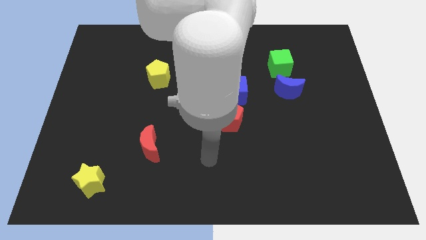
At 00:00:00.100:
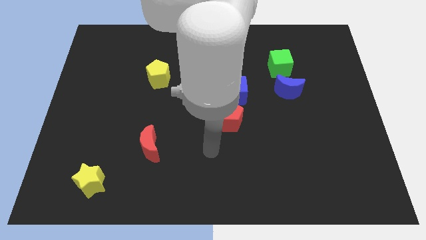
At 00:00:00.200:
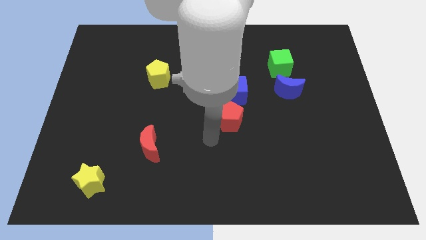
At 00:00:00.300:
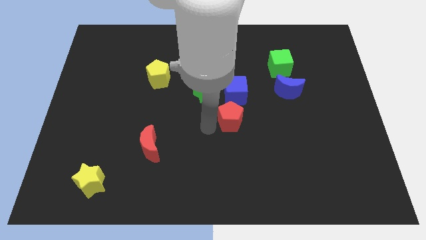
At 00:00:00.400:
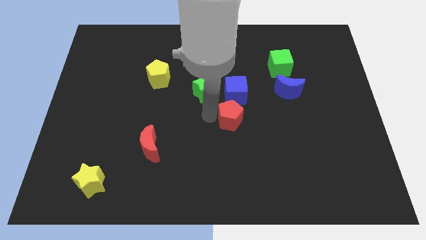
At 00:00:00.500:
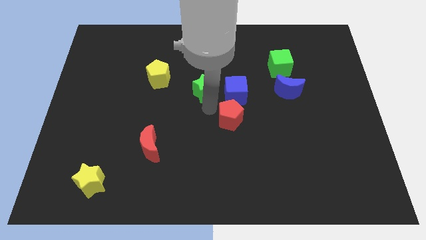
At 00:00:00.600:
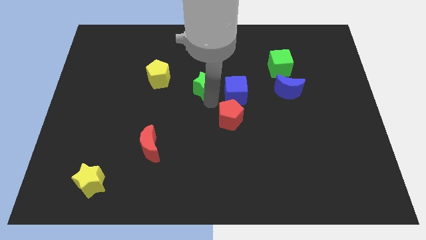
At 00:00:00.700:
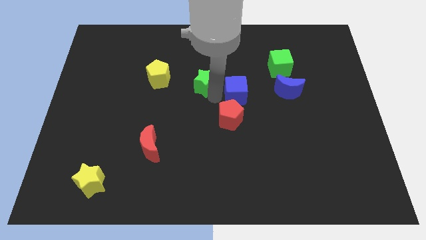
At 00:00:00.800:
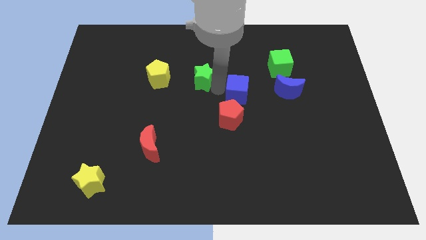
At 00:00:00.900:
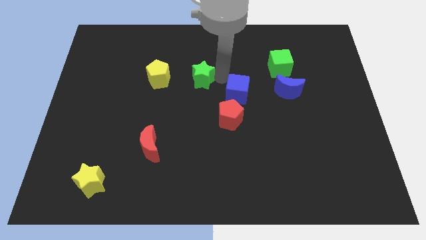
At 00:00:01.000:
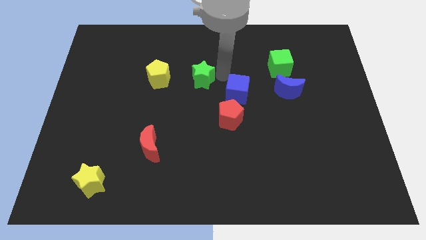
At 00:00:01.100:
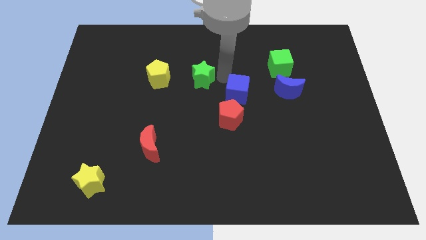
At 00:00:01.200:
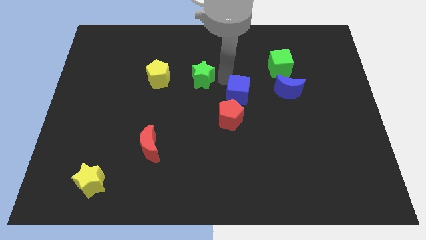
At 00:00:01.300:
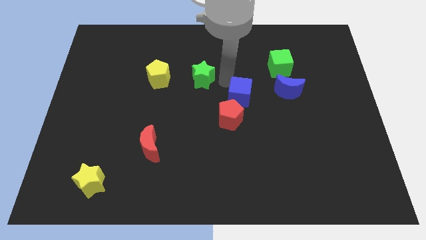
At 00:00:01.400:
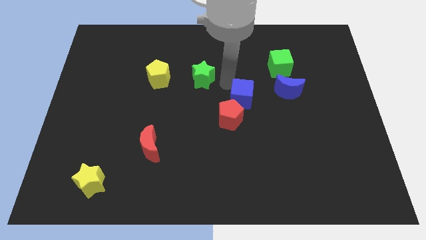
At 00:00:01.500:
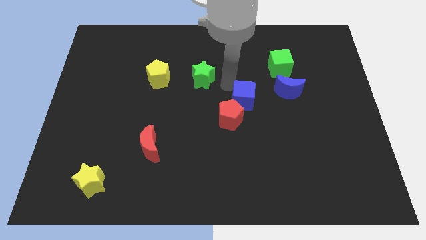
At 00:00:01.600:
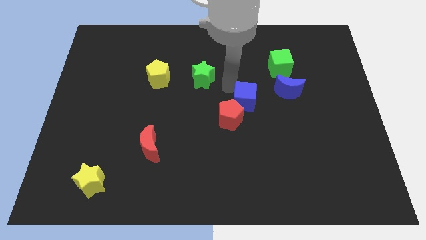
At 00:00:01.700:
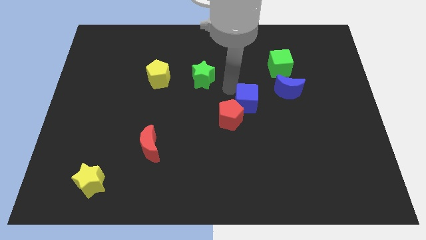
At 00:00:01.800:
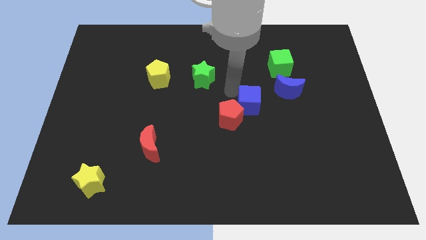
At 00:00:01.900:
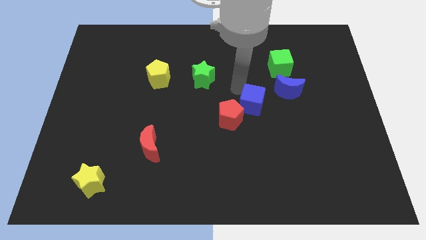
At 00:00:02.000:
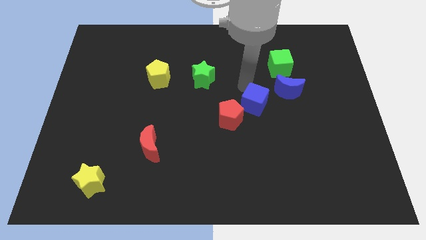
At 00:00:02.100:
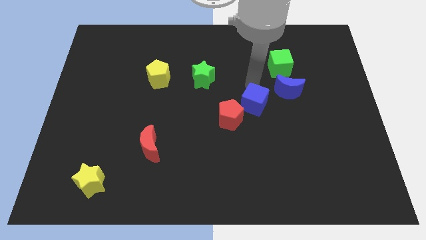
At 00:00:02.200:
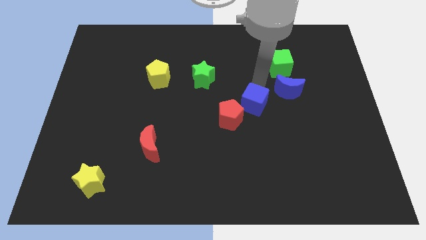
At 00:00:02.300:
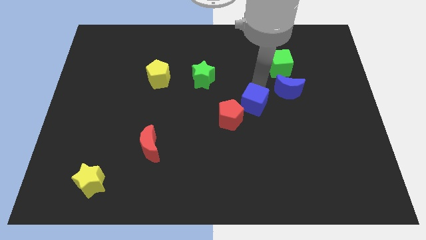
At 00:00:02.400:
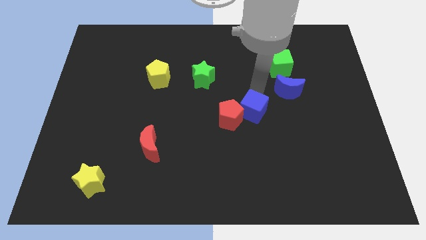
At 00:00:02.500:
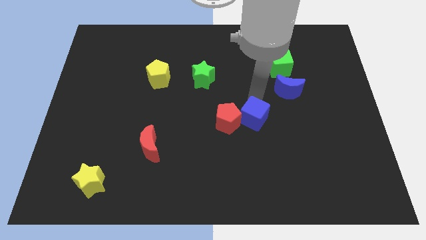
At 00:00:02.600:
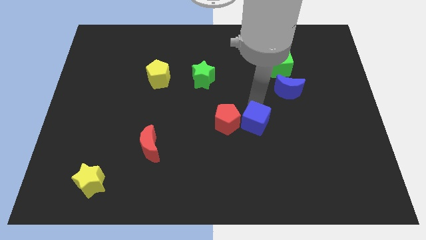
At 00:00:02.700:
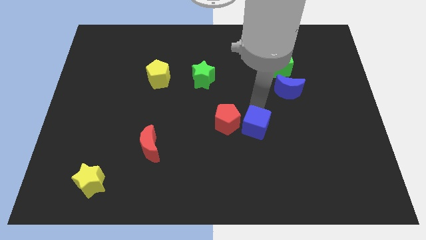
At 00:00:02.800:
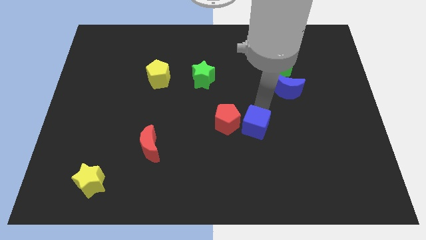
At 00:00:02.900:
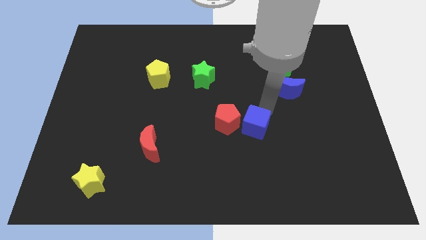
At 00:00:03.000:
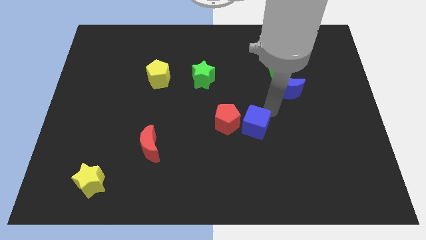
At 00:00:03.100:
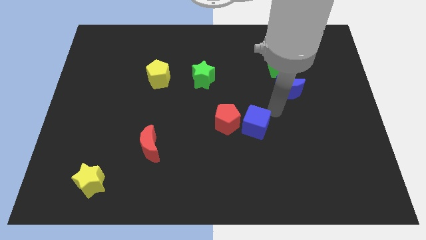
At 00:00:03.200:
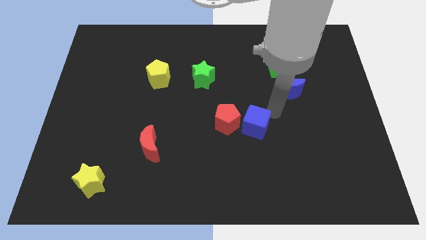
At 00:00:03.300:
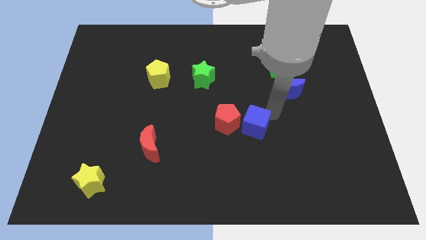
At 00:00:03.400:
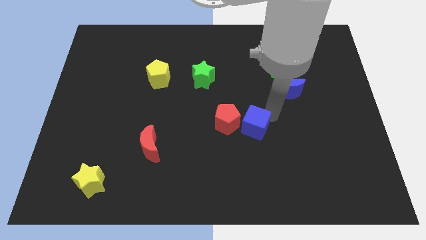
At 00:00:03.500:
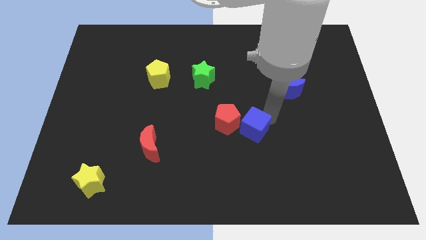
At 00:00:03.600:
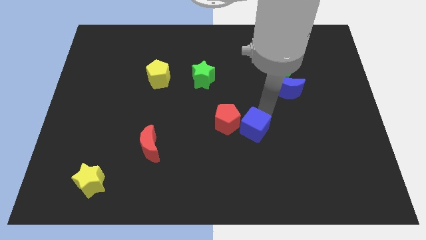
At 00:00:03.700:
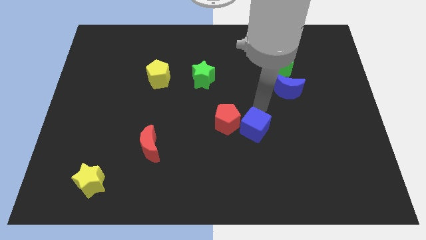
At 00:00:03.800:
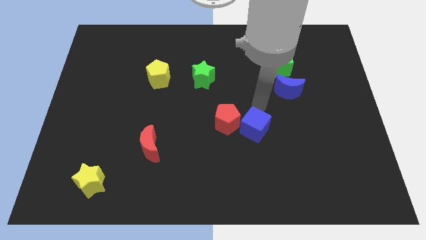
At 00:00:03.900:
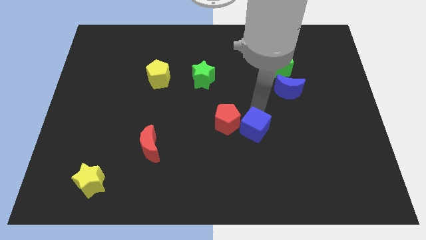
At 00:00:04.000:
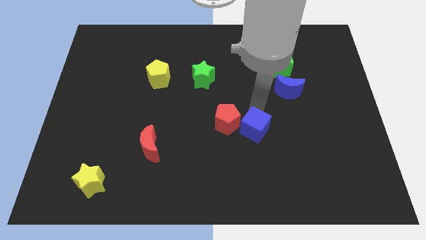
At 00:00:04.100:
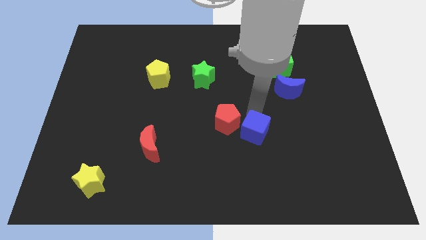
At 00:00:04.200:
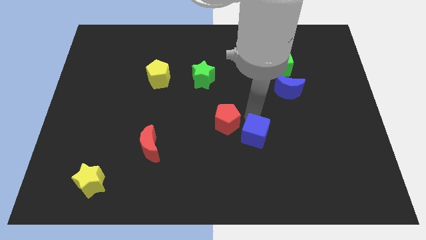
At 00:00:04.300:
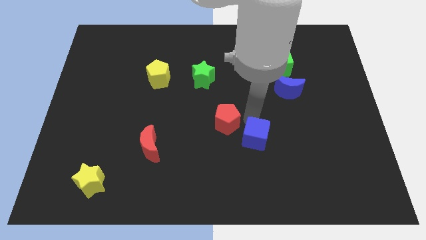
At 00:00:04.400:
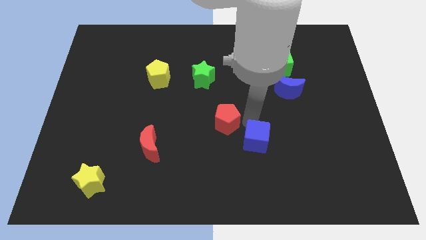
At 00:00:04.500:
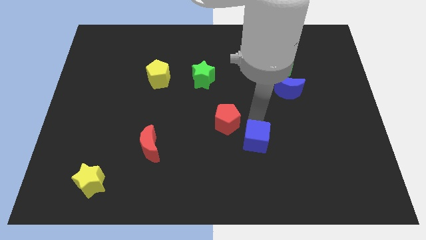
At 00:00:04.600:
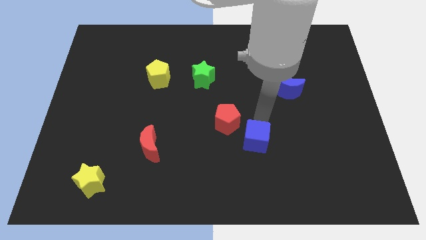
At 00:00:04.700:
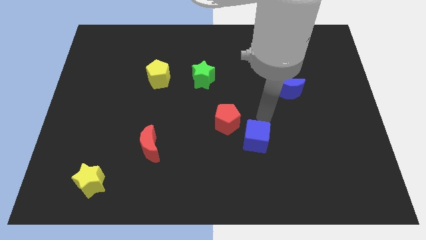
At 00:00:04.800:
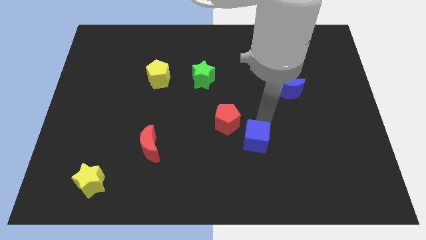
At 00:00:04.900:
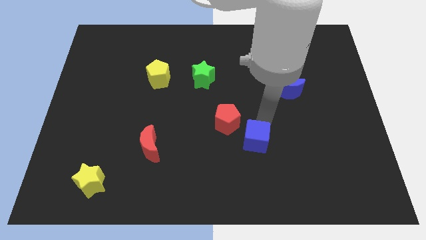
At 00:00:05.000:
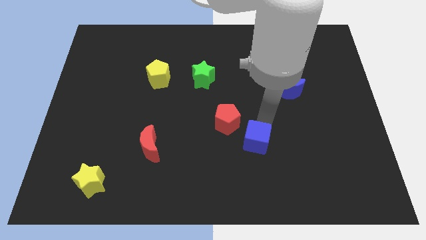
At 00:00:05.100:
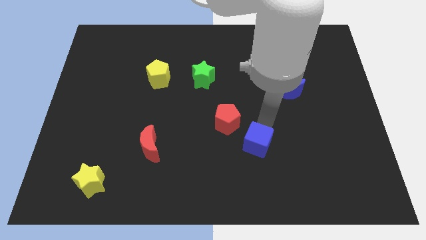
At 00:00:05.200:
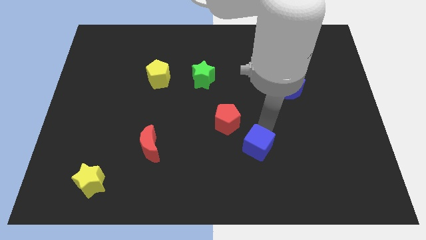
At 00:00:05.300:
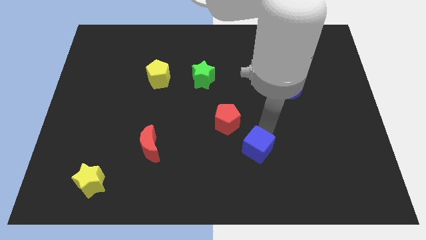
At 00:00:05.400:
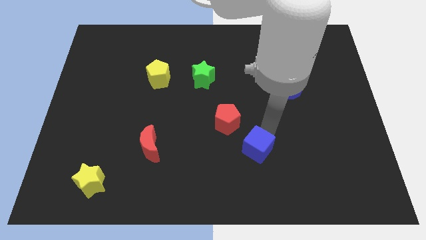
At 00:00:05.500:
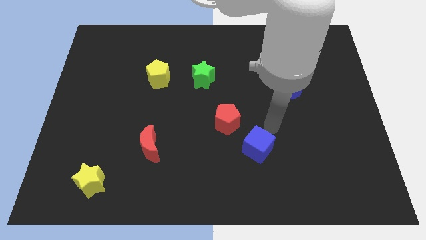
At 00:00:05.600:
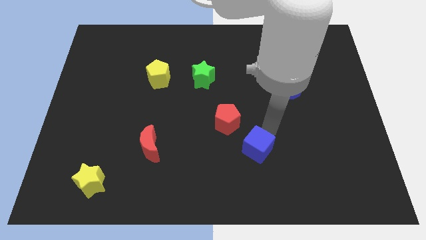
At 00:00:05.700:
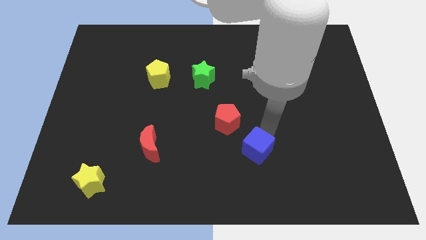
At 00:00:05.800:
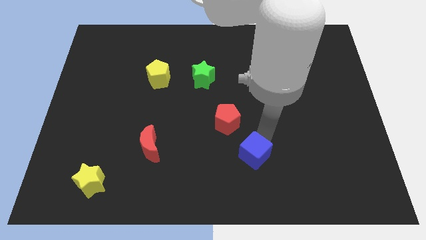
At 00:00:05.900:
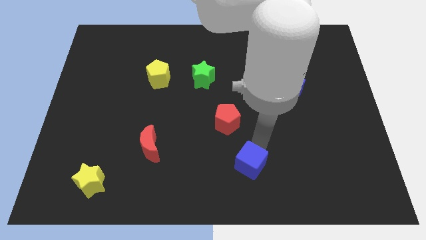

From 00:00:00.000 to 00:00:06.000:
put the blue cube to the bottom side

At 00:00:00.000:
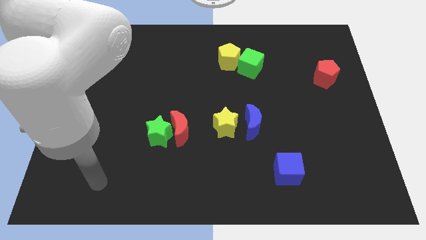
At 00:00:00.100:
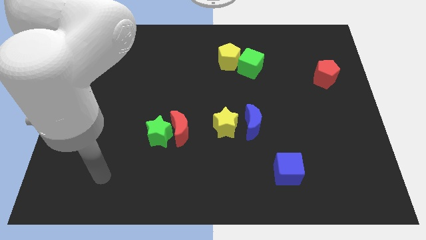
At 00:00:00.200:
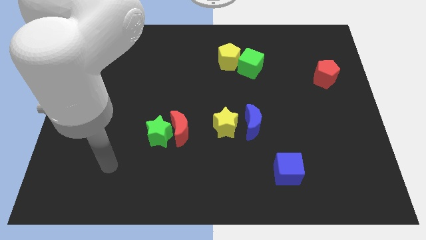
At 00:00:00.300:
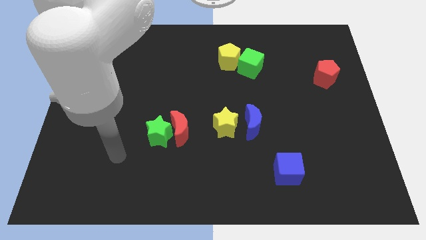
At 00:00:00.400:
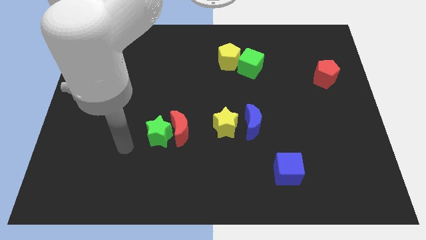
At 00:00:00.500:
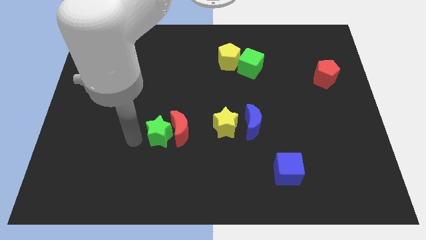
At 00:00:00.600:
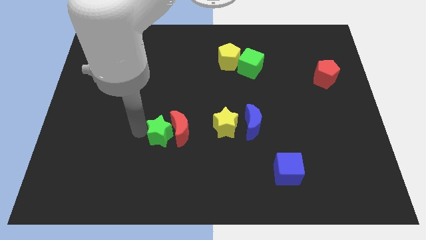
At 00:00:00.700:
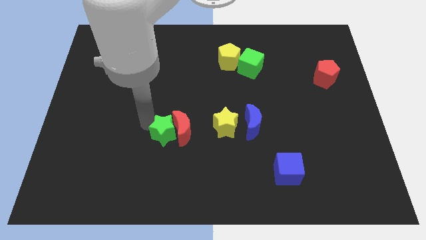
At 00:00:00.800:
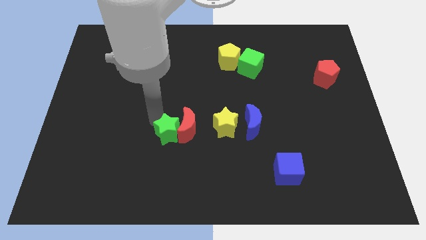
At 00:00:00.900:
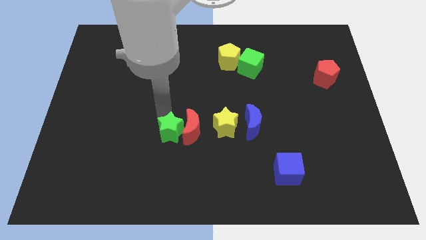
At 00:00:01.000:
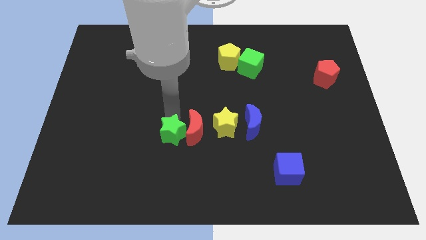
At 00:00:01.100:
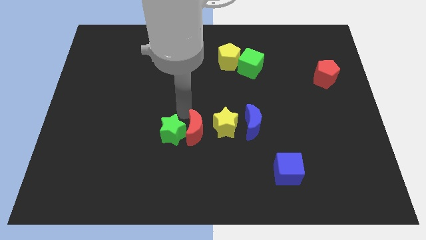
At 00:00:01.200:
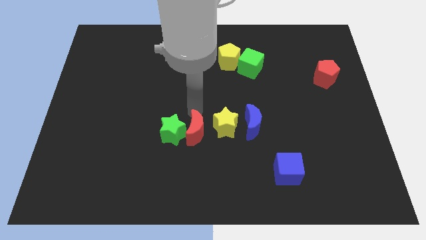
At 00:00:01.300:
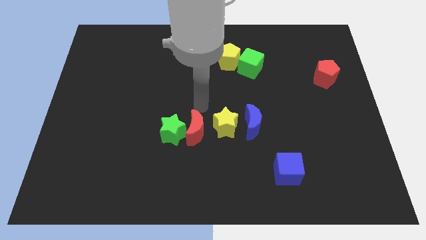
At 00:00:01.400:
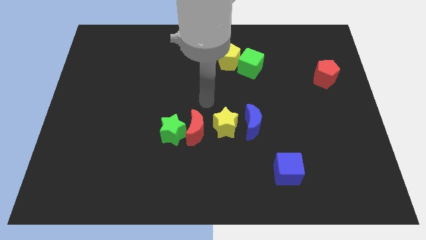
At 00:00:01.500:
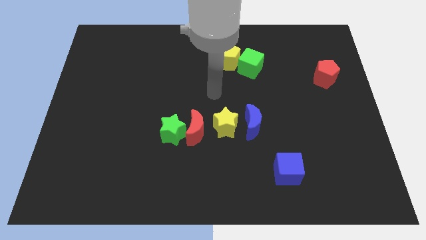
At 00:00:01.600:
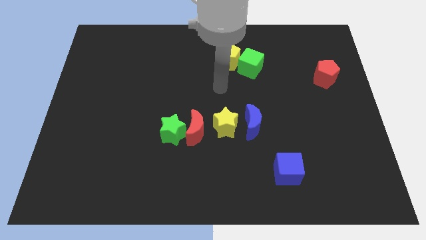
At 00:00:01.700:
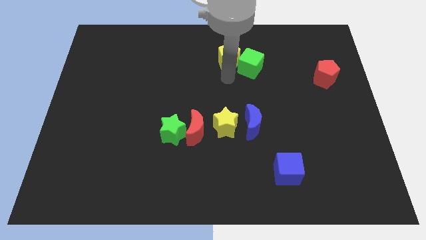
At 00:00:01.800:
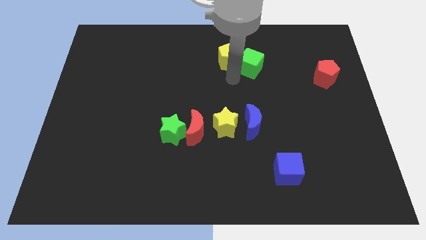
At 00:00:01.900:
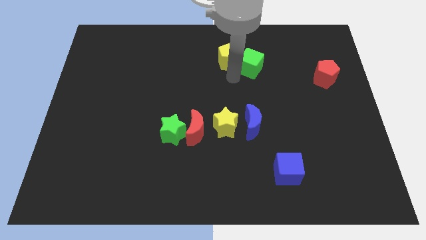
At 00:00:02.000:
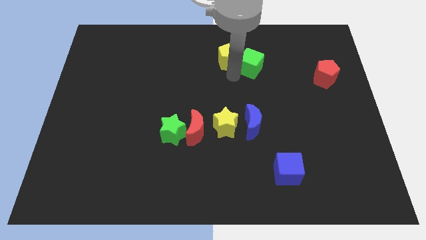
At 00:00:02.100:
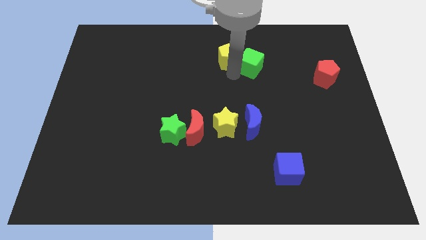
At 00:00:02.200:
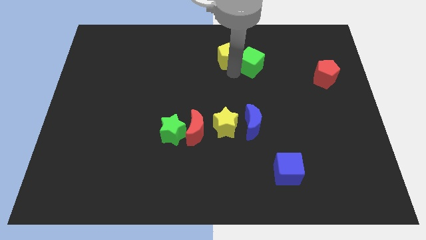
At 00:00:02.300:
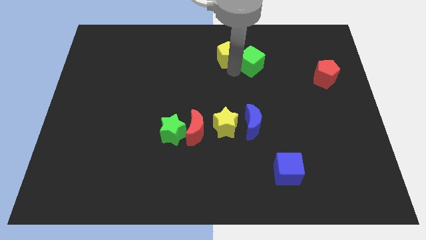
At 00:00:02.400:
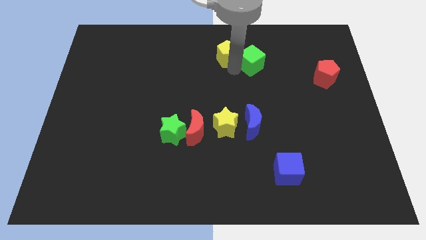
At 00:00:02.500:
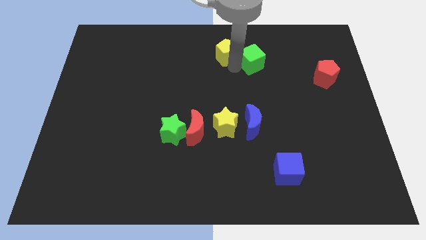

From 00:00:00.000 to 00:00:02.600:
push the yellow pentagon to the towards your base
